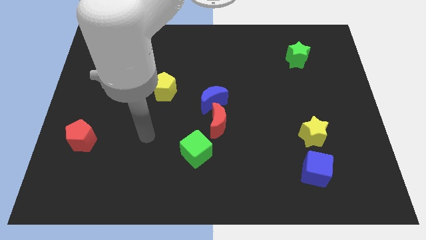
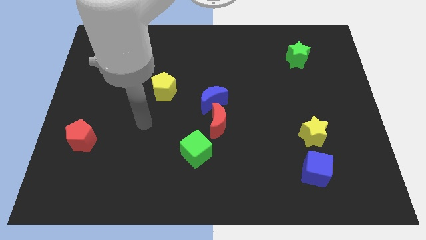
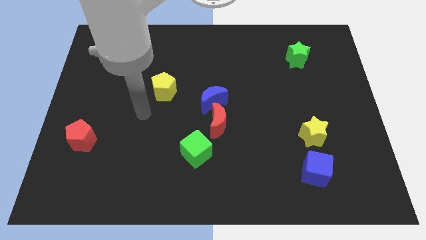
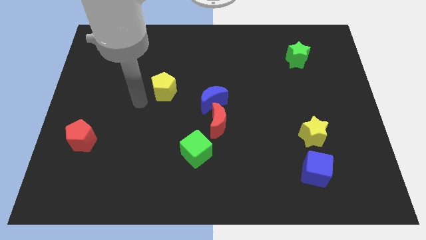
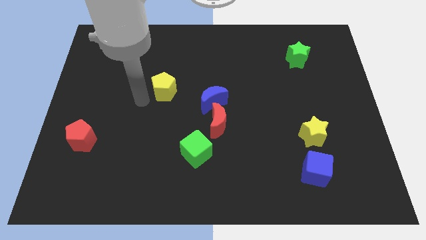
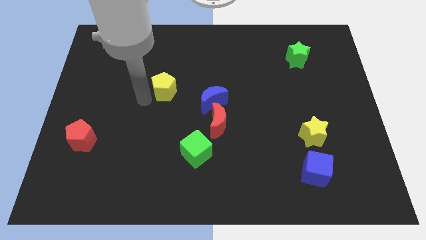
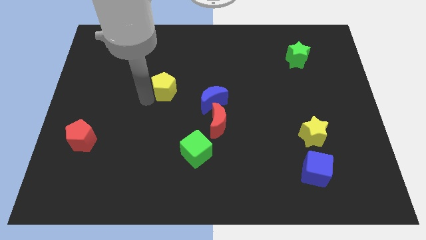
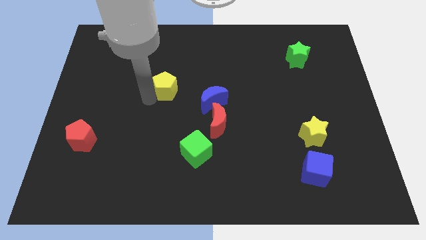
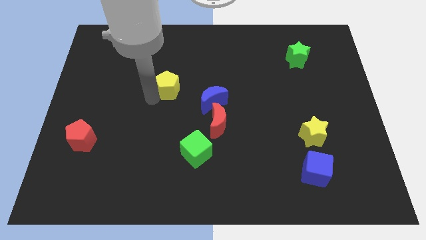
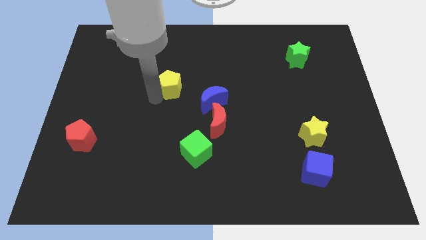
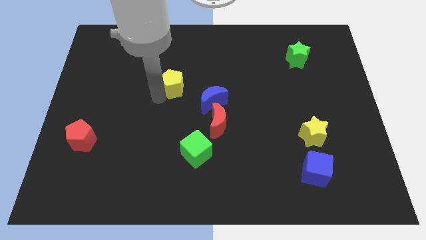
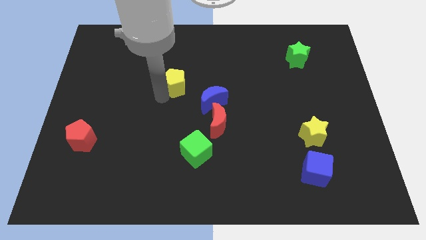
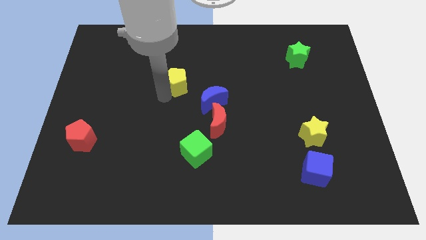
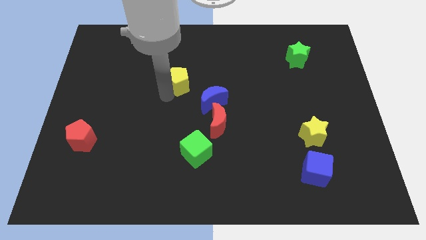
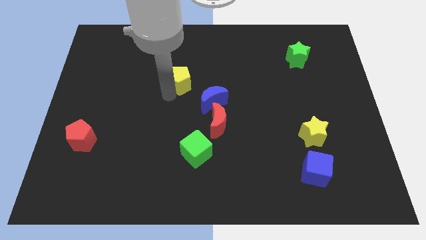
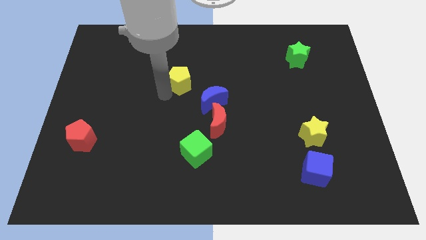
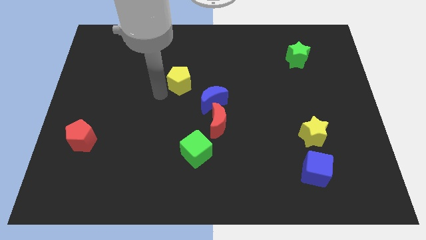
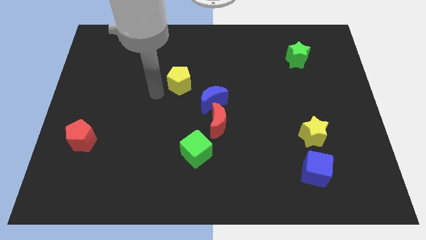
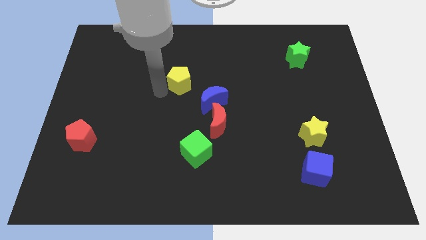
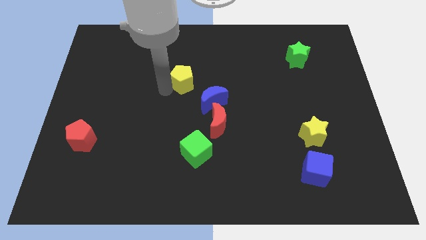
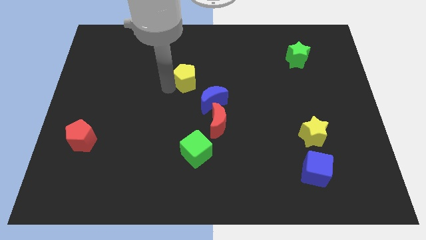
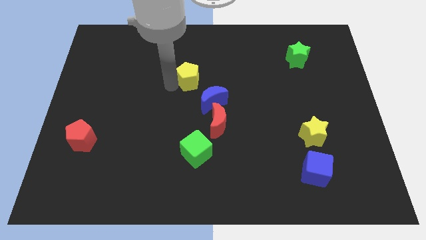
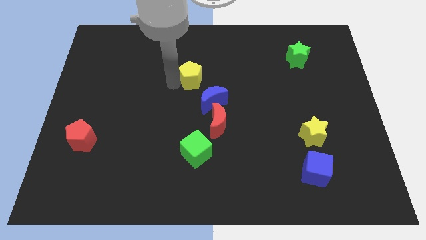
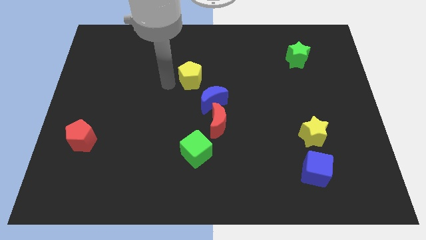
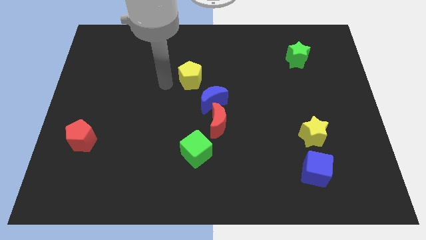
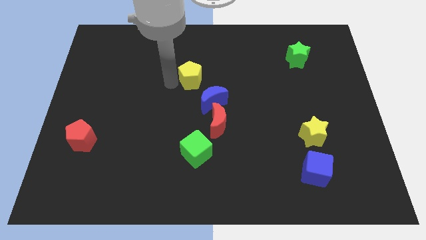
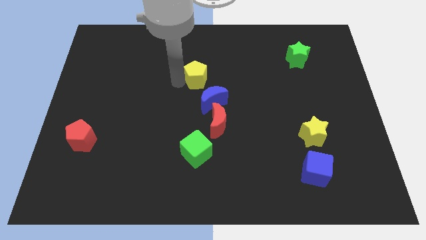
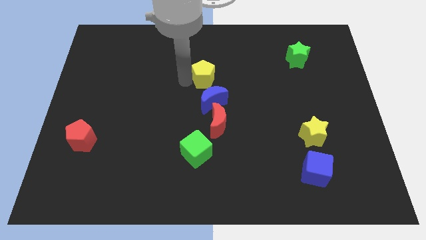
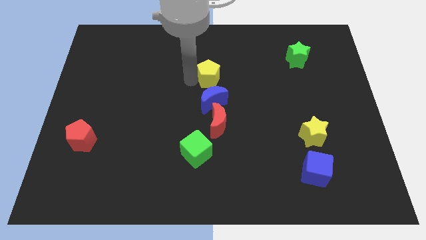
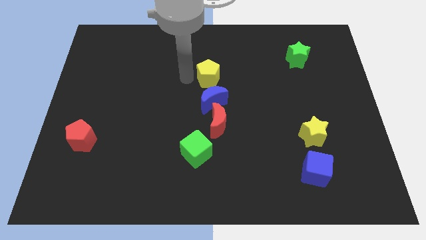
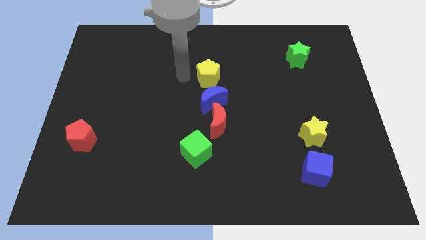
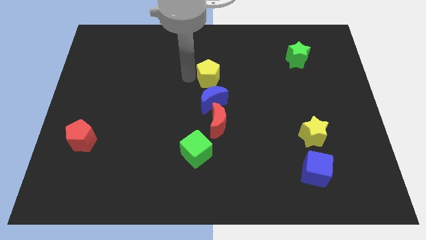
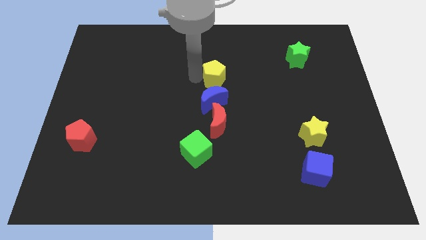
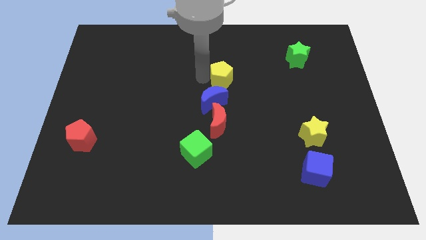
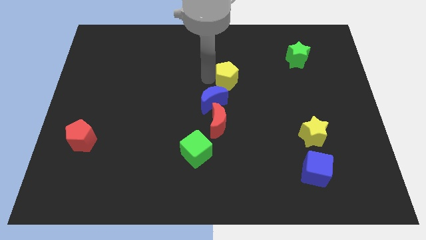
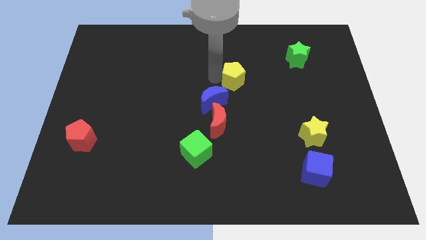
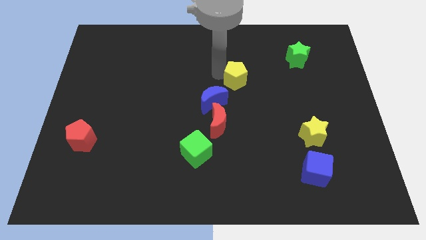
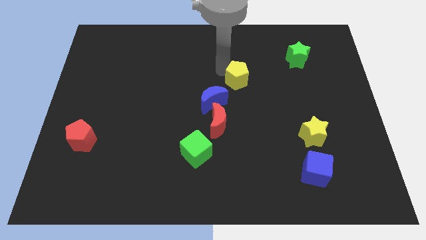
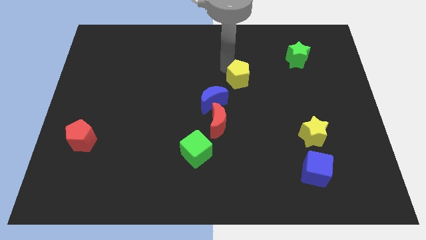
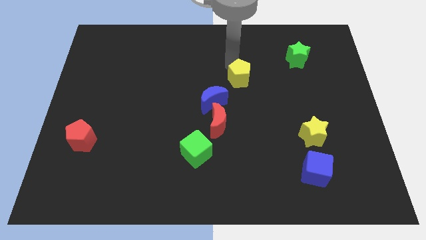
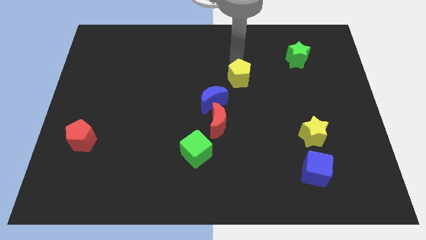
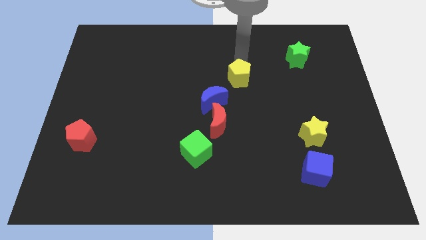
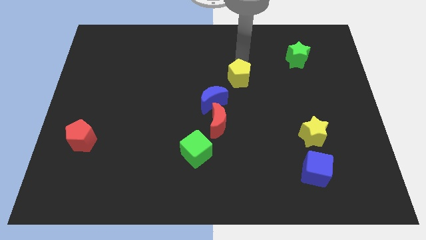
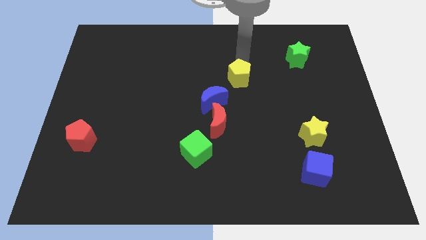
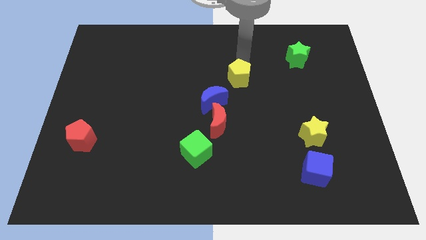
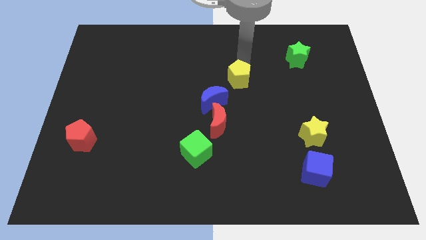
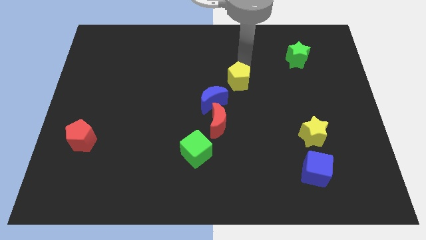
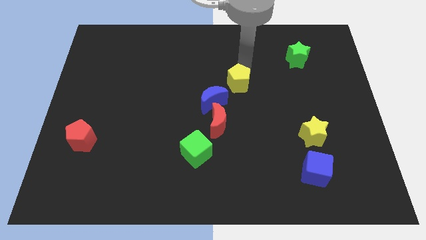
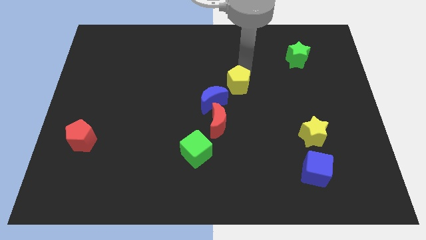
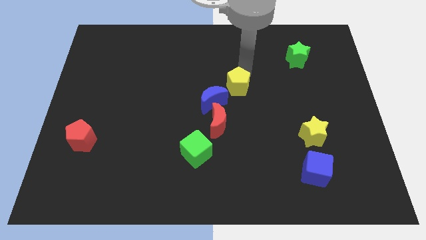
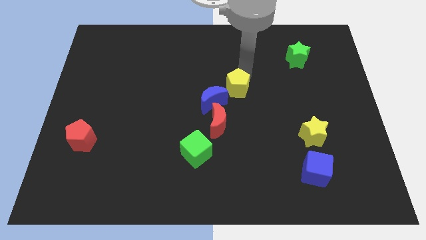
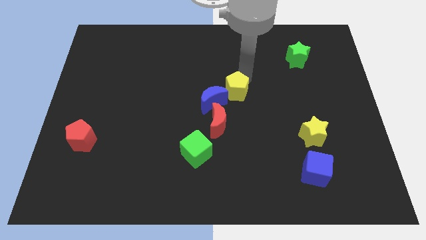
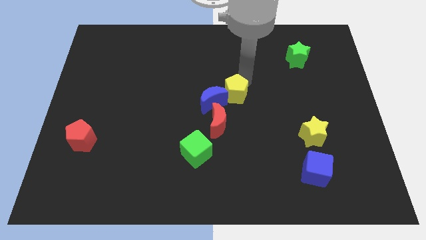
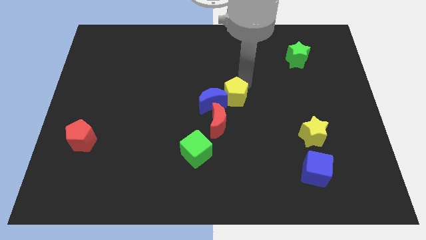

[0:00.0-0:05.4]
slightly move the yellow pentagon diagonally down and to the right

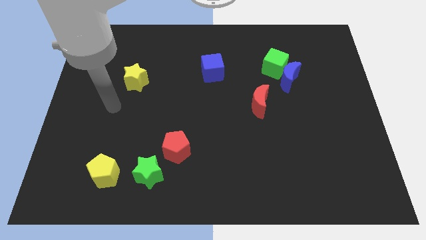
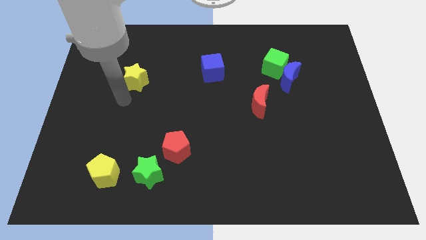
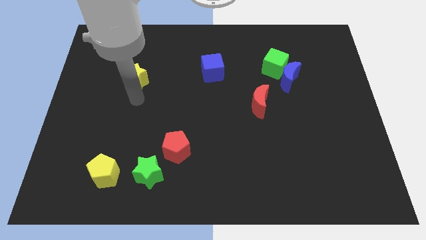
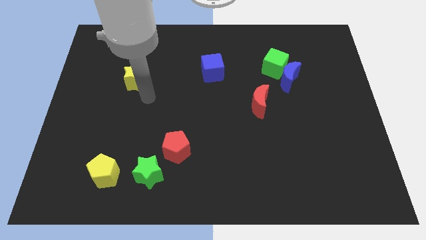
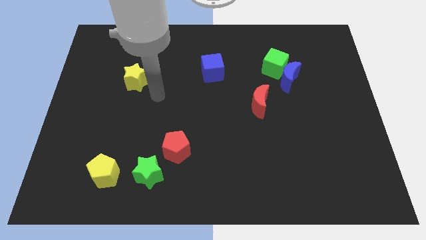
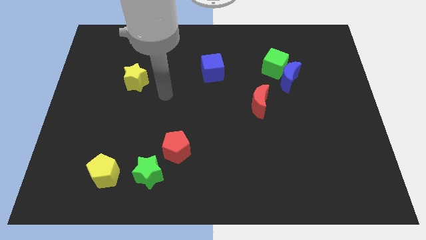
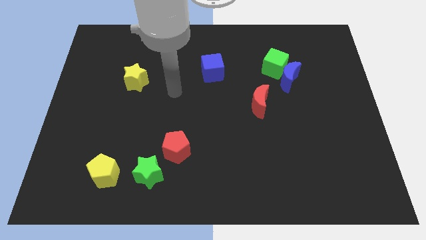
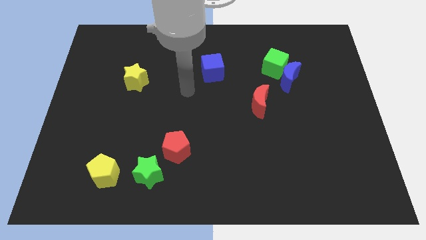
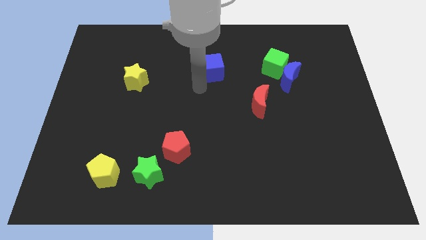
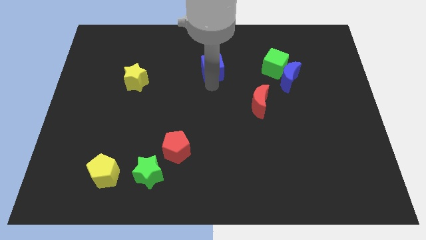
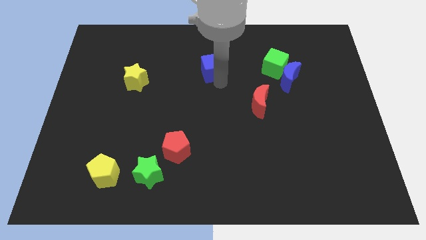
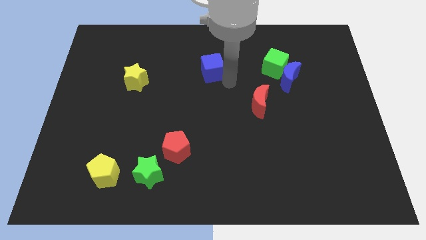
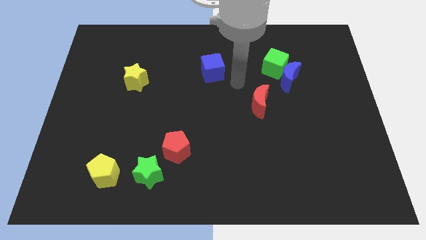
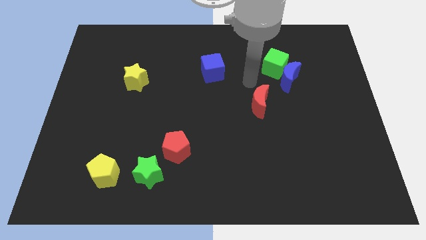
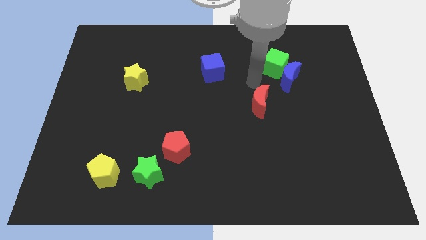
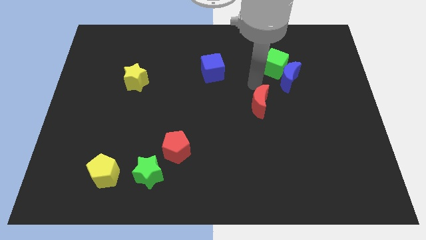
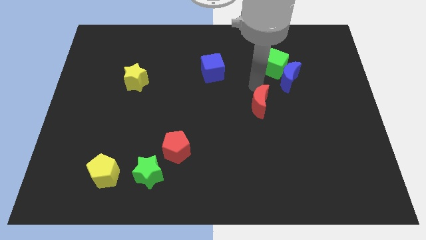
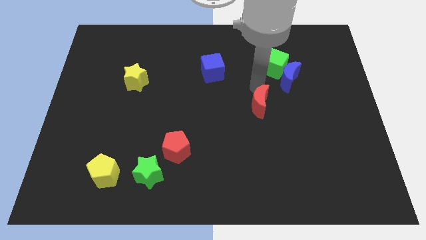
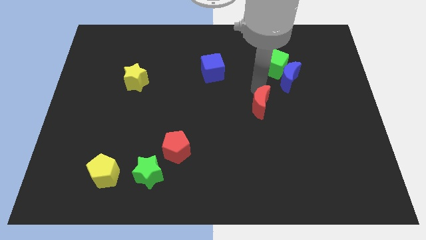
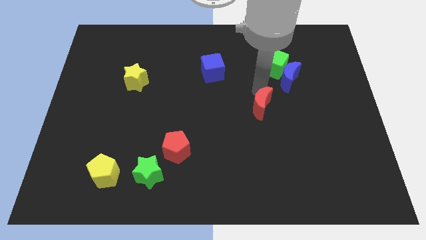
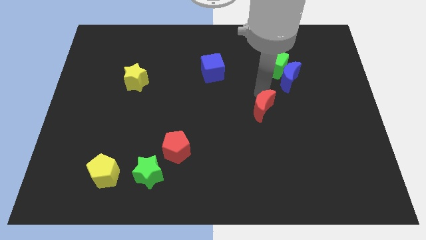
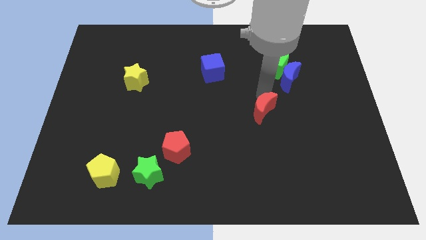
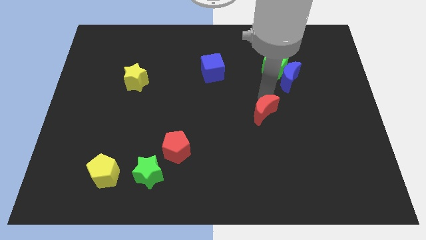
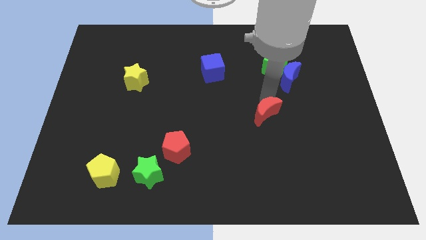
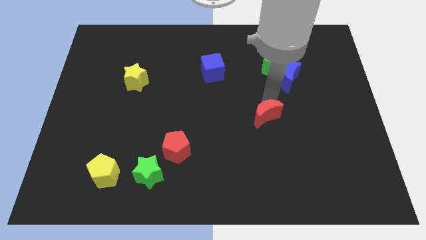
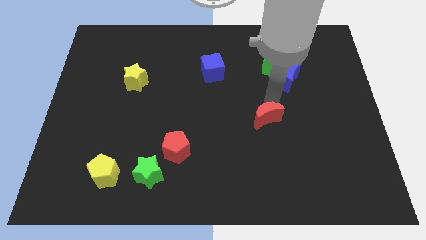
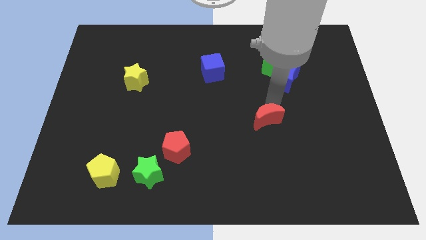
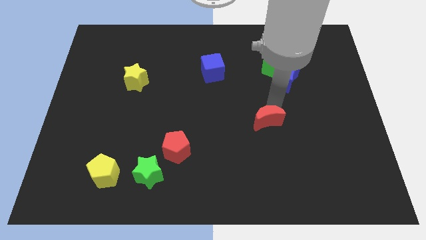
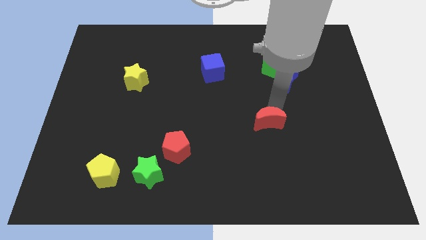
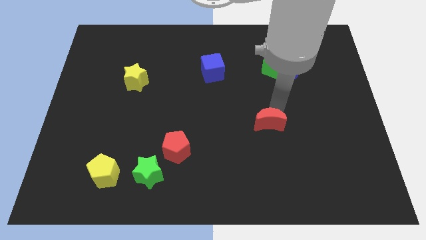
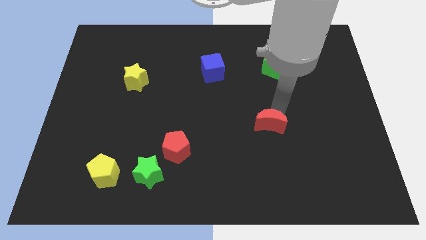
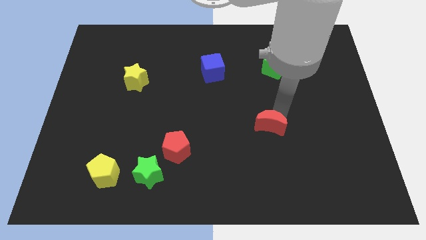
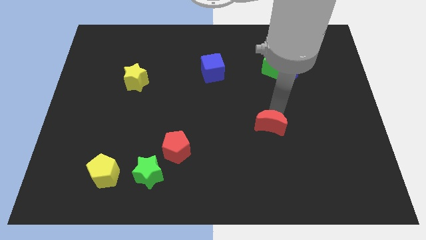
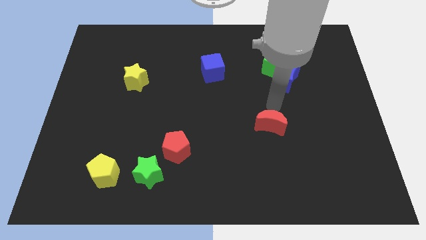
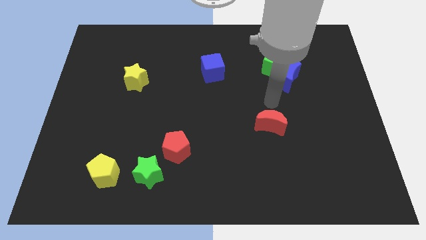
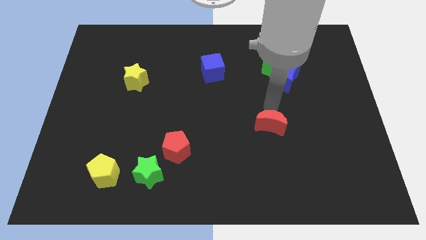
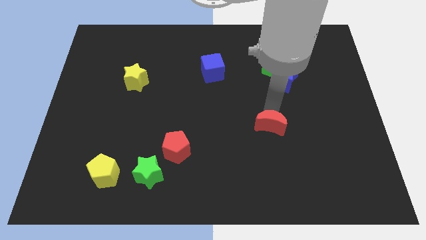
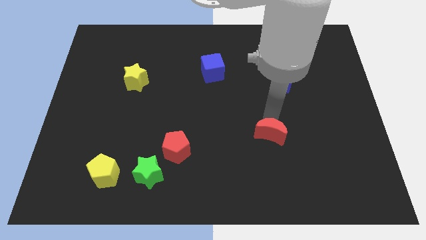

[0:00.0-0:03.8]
slightly push the red moon downwards
